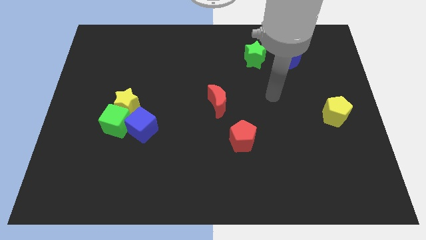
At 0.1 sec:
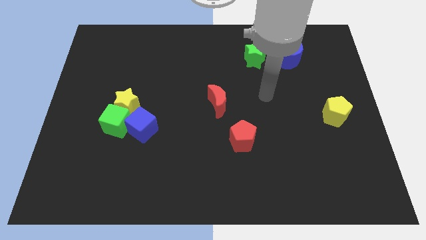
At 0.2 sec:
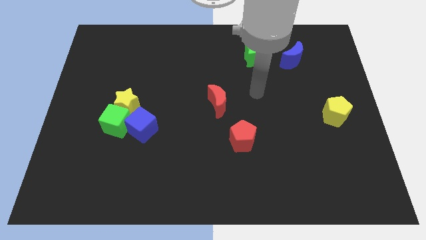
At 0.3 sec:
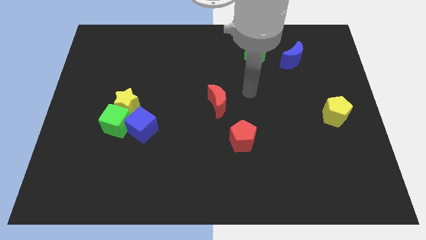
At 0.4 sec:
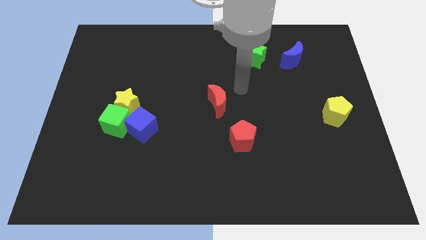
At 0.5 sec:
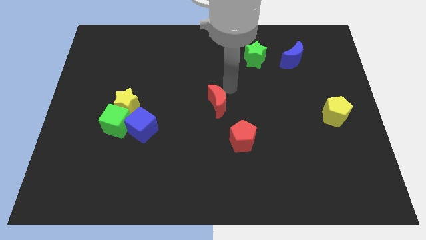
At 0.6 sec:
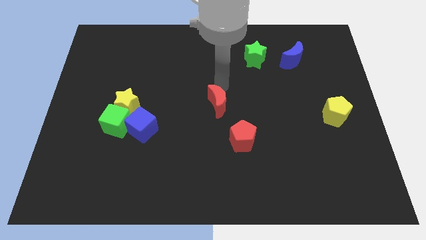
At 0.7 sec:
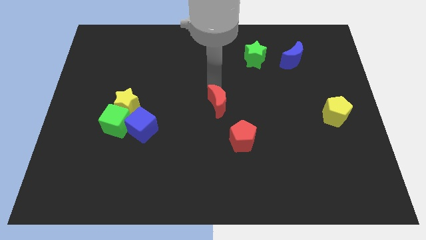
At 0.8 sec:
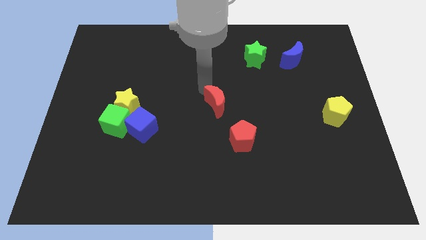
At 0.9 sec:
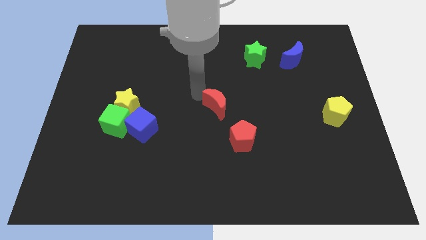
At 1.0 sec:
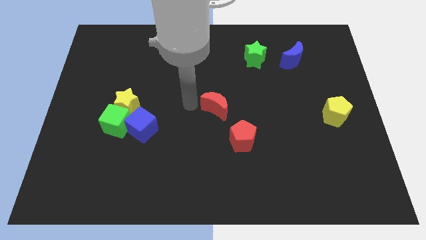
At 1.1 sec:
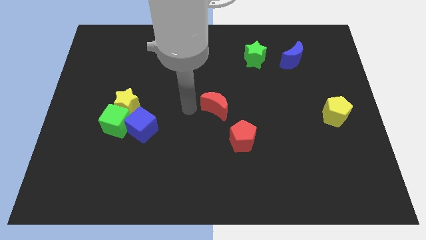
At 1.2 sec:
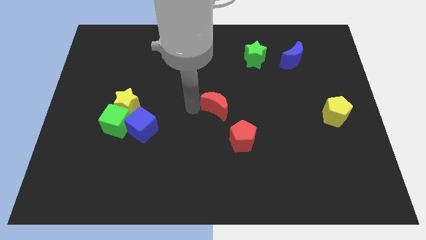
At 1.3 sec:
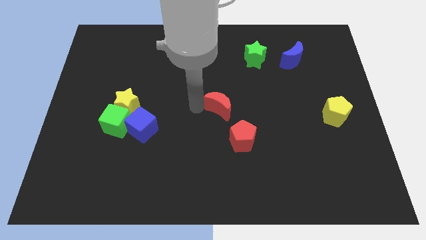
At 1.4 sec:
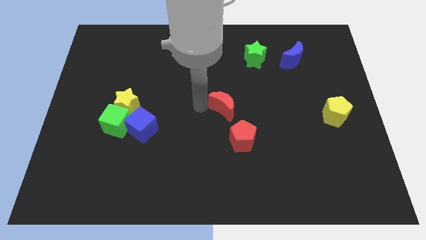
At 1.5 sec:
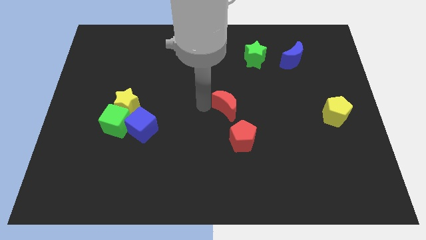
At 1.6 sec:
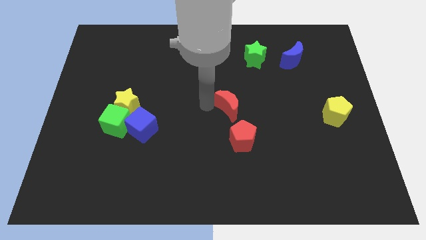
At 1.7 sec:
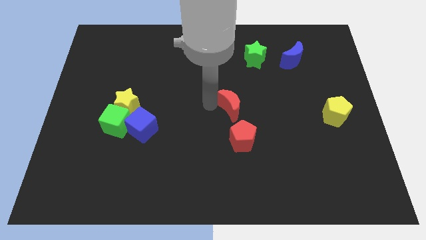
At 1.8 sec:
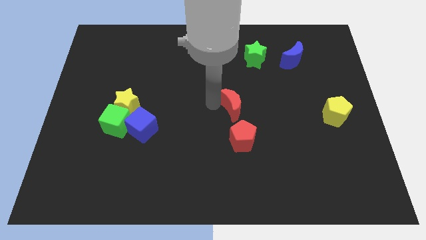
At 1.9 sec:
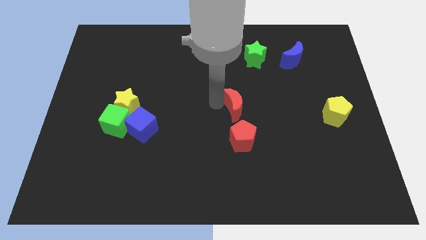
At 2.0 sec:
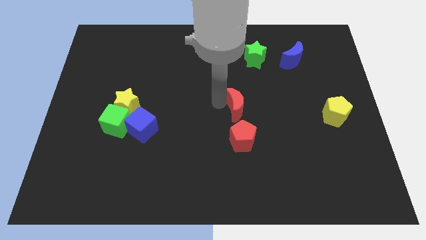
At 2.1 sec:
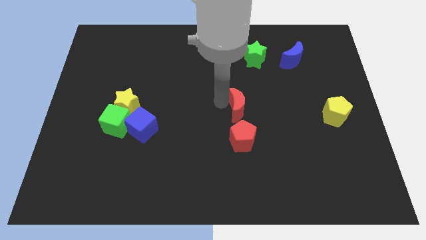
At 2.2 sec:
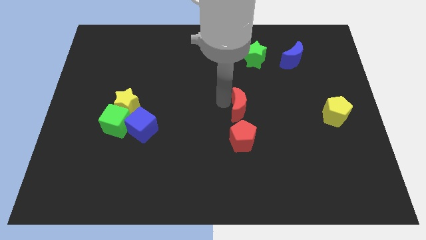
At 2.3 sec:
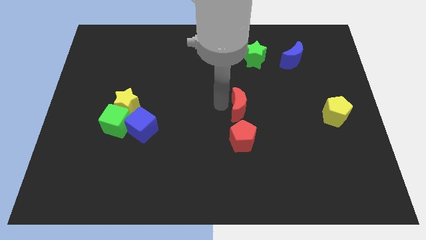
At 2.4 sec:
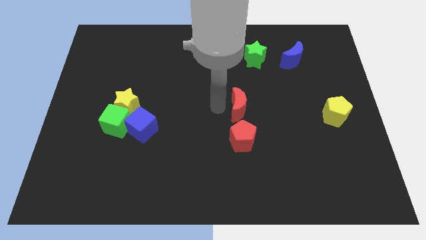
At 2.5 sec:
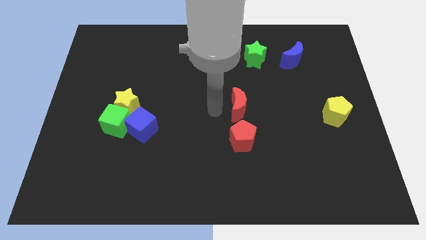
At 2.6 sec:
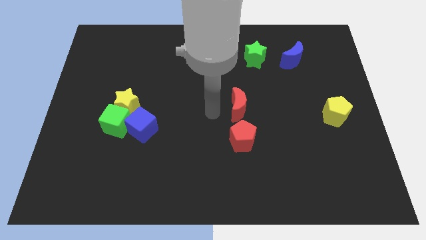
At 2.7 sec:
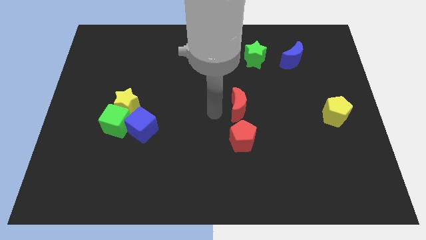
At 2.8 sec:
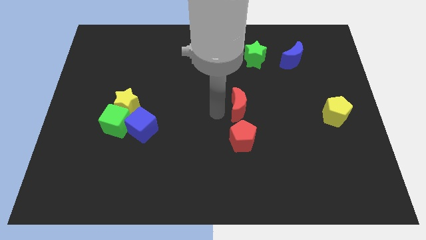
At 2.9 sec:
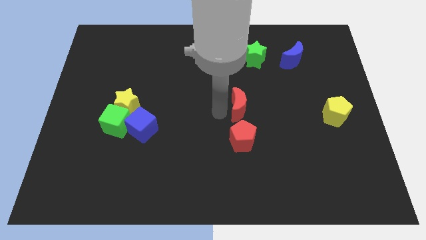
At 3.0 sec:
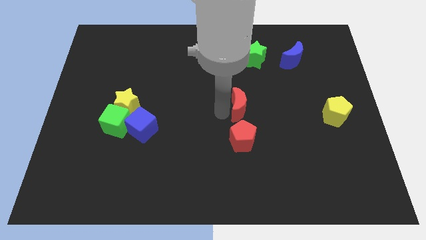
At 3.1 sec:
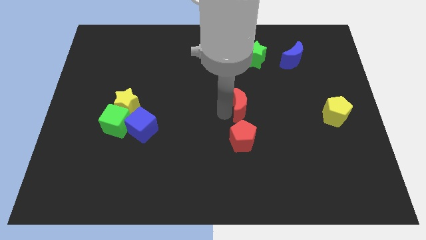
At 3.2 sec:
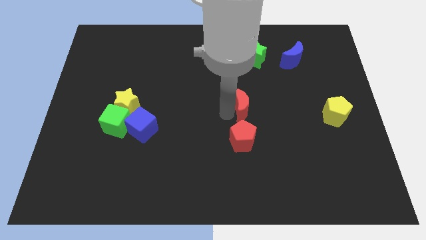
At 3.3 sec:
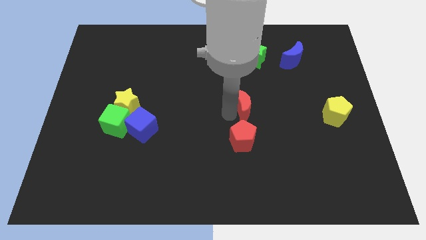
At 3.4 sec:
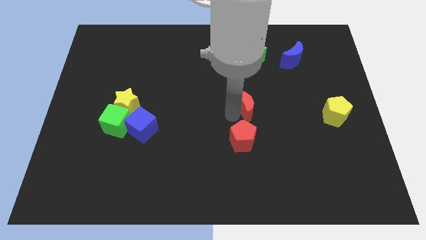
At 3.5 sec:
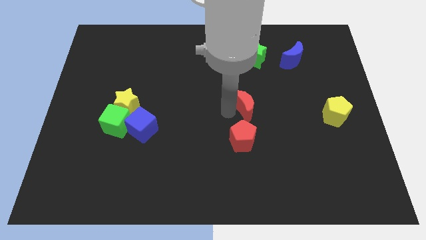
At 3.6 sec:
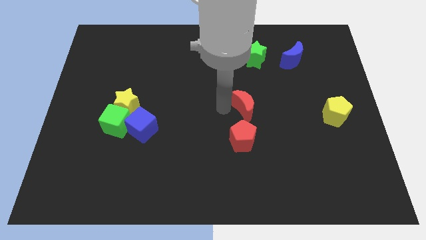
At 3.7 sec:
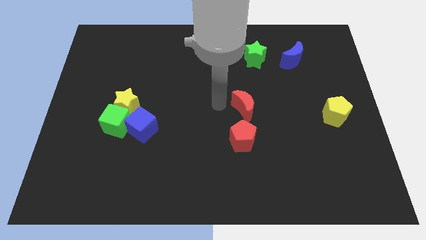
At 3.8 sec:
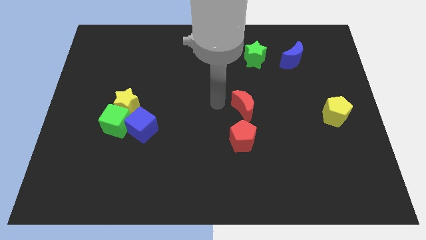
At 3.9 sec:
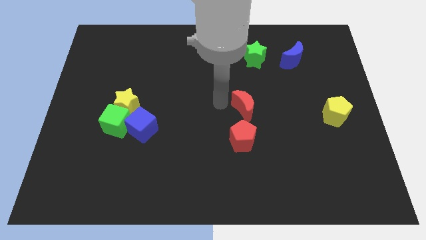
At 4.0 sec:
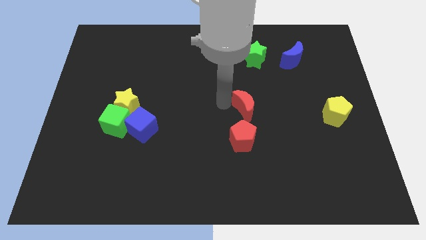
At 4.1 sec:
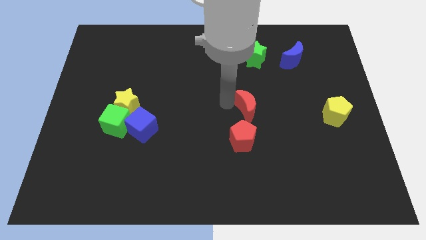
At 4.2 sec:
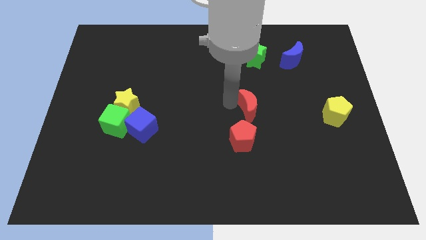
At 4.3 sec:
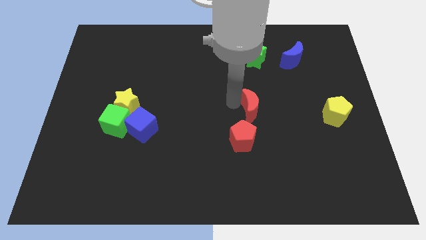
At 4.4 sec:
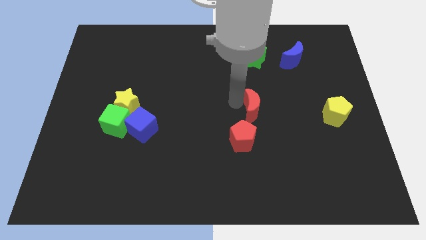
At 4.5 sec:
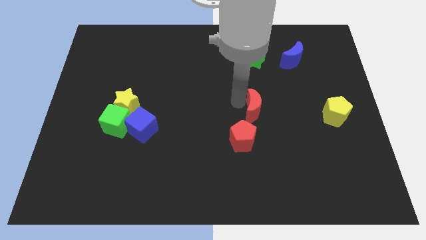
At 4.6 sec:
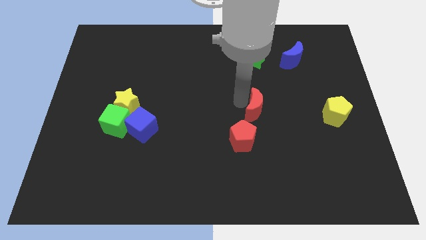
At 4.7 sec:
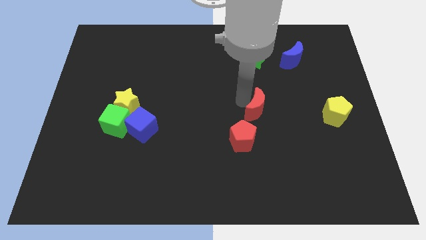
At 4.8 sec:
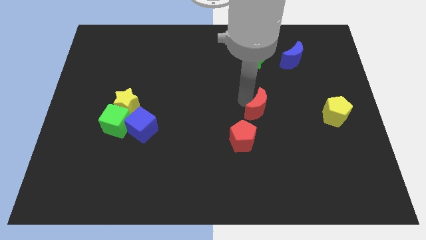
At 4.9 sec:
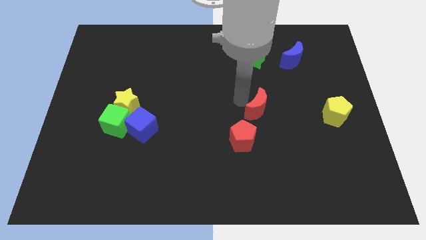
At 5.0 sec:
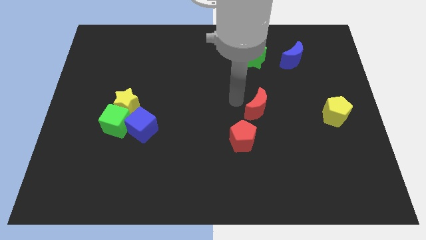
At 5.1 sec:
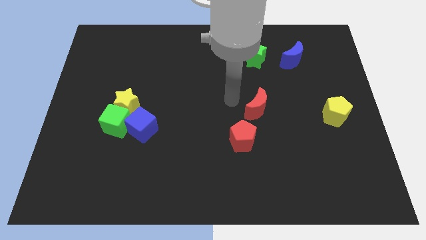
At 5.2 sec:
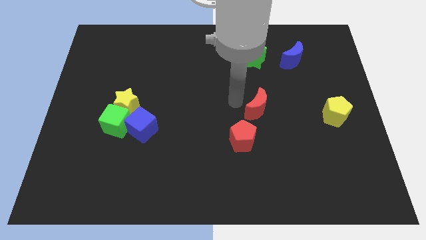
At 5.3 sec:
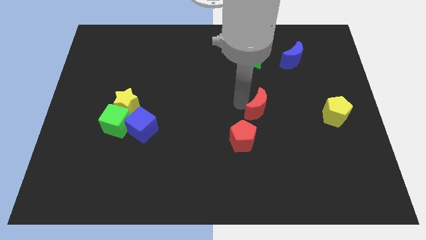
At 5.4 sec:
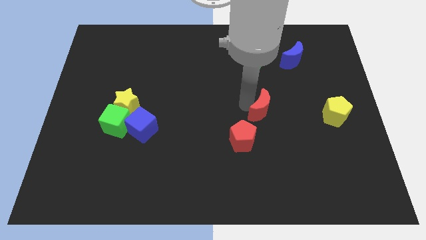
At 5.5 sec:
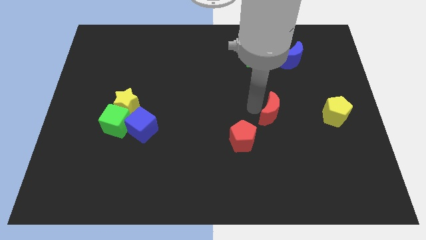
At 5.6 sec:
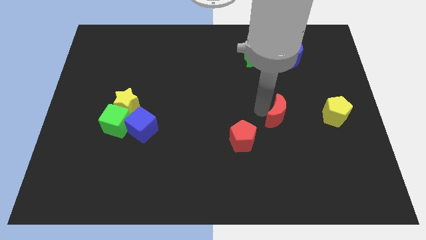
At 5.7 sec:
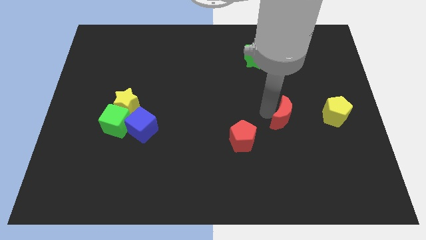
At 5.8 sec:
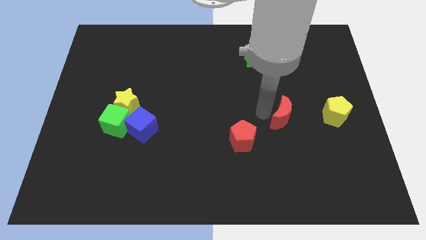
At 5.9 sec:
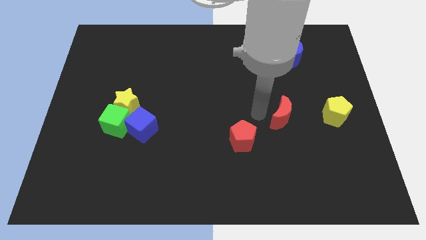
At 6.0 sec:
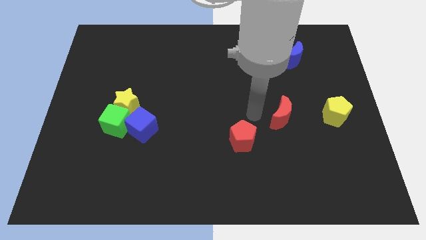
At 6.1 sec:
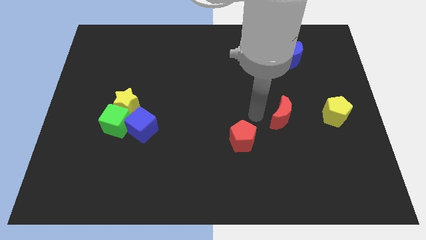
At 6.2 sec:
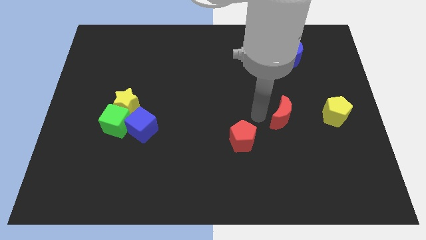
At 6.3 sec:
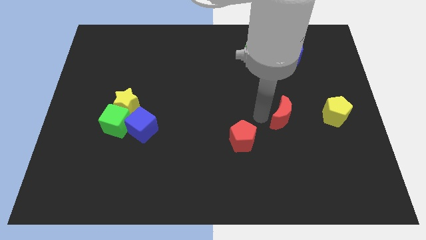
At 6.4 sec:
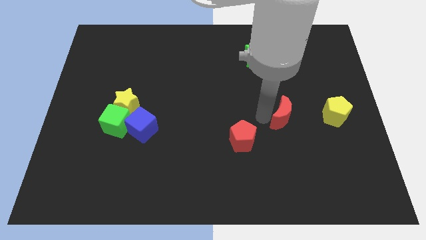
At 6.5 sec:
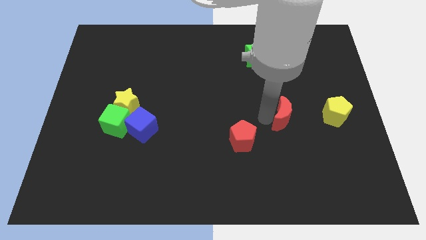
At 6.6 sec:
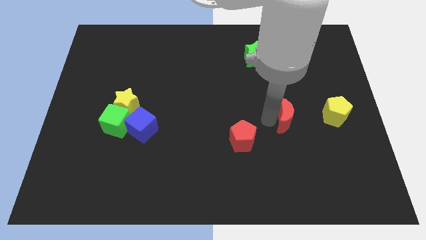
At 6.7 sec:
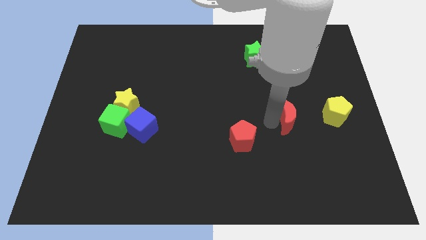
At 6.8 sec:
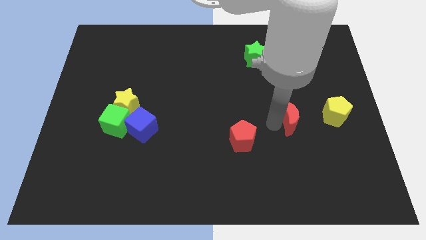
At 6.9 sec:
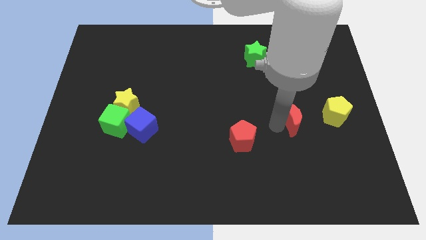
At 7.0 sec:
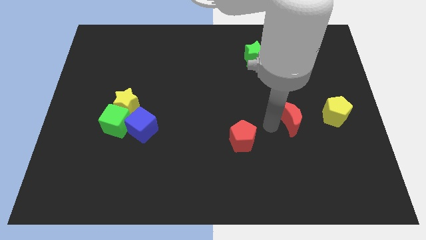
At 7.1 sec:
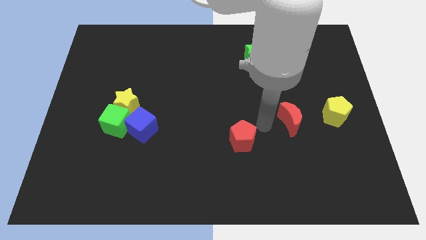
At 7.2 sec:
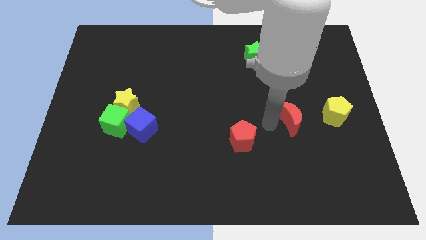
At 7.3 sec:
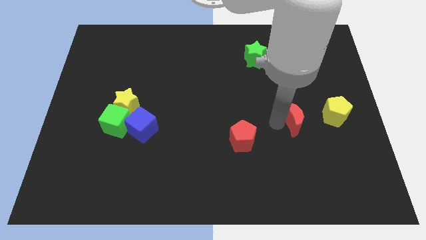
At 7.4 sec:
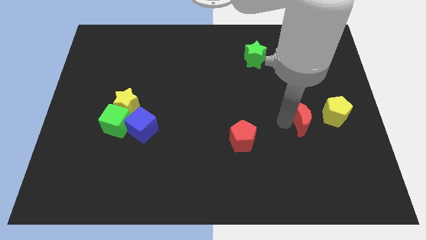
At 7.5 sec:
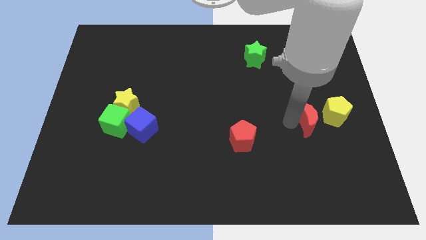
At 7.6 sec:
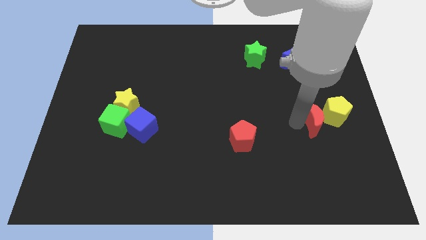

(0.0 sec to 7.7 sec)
put the red moon next to the yellow pentagon
